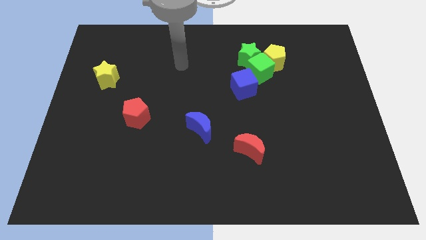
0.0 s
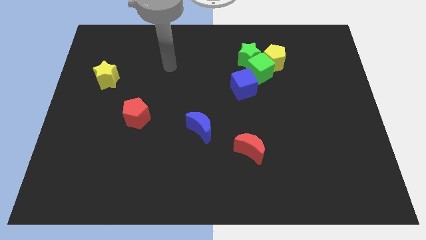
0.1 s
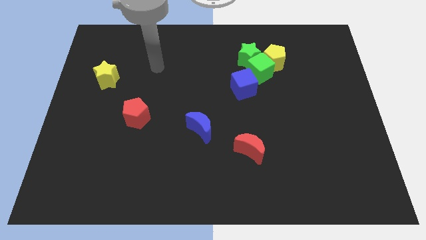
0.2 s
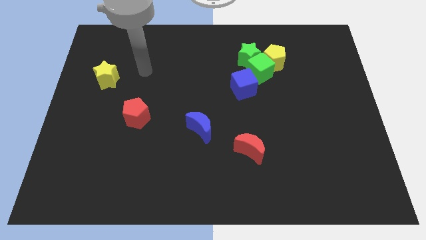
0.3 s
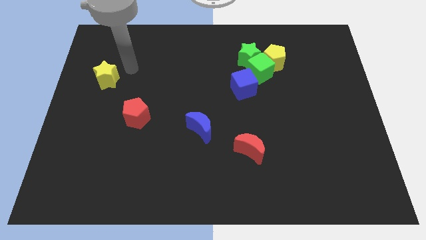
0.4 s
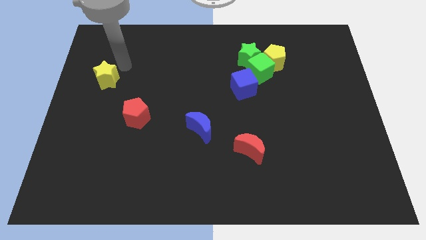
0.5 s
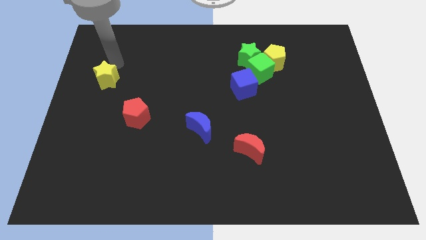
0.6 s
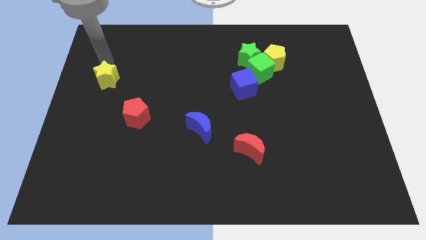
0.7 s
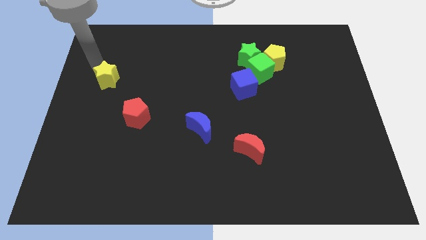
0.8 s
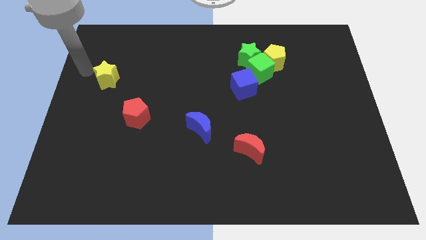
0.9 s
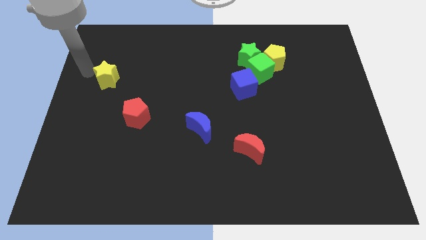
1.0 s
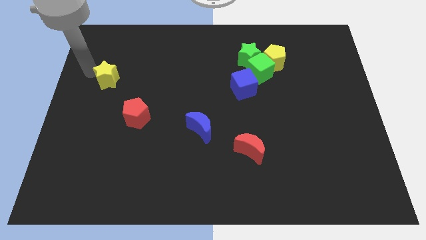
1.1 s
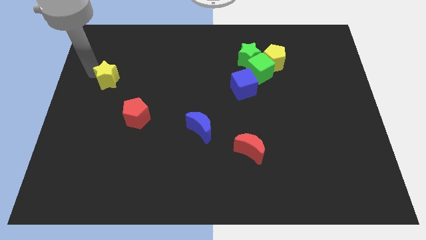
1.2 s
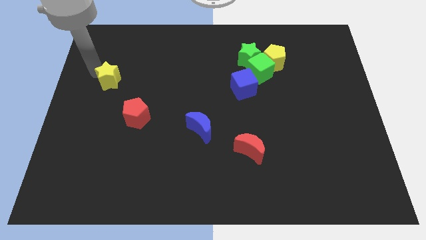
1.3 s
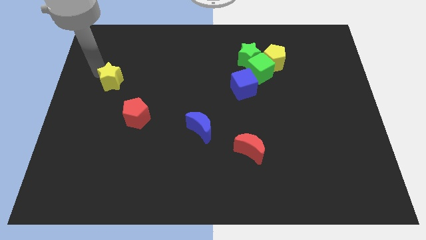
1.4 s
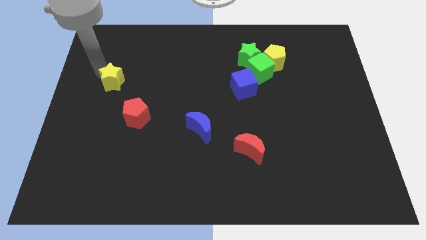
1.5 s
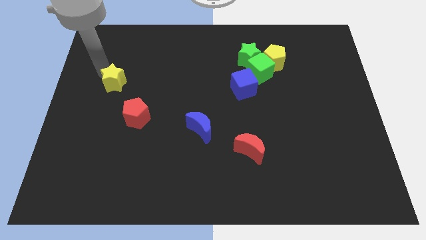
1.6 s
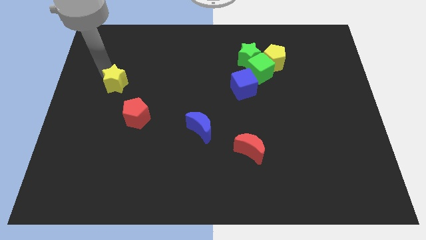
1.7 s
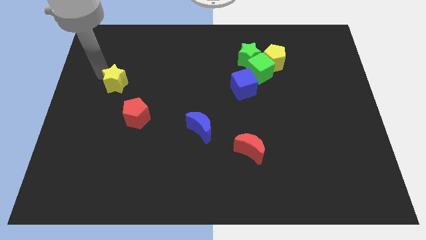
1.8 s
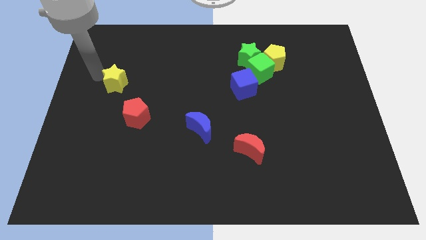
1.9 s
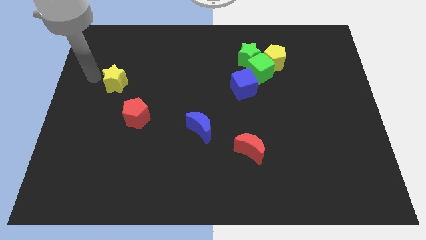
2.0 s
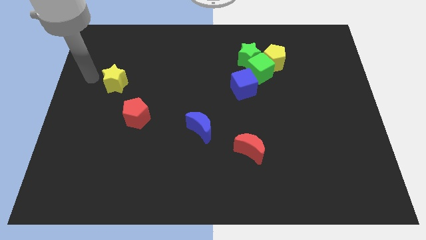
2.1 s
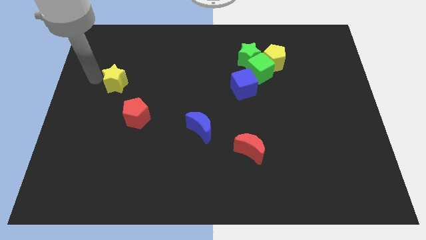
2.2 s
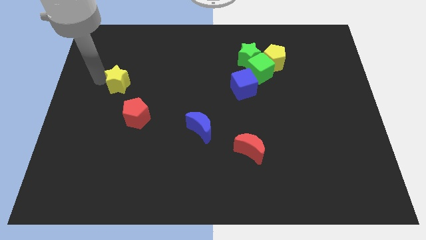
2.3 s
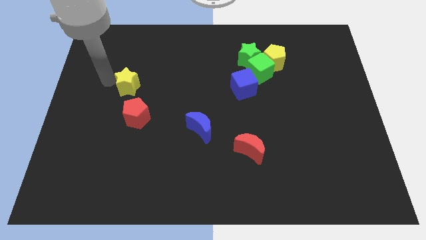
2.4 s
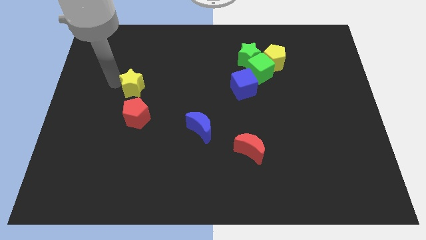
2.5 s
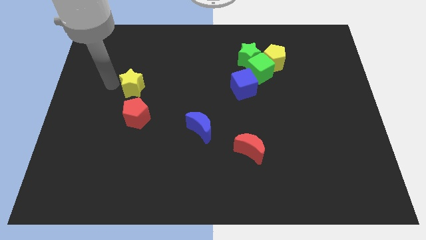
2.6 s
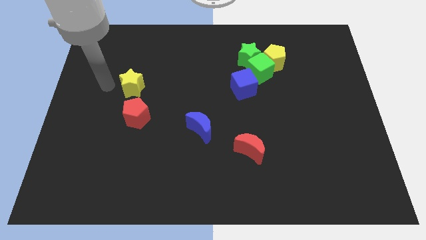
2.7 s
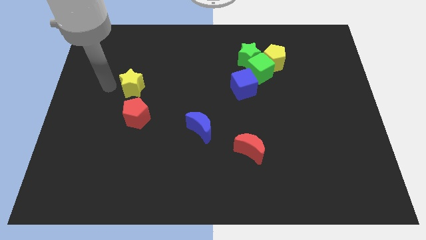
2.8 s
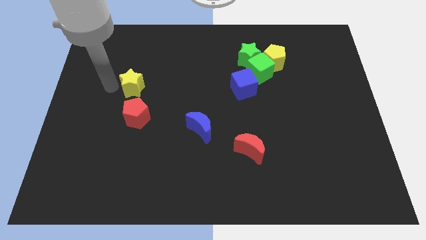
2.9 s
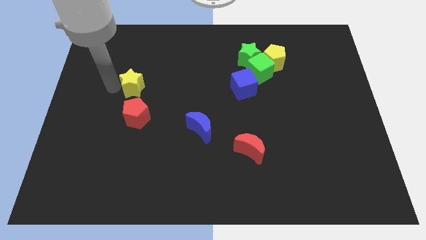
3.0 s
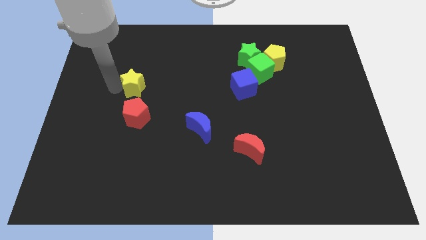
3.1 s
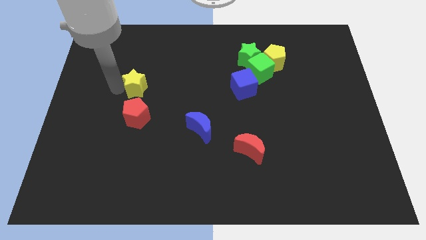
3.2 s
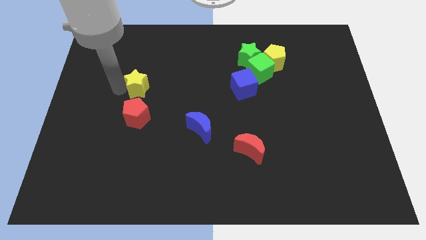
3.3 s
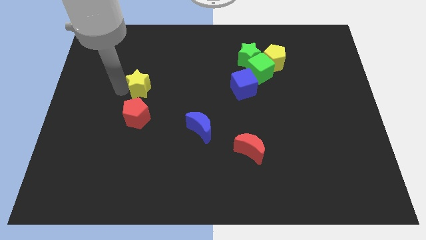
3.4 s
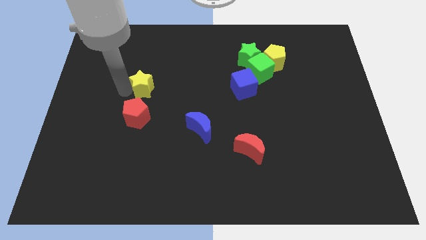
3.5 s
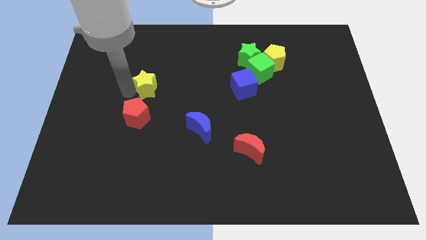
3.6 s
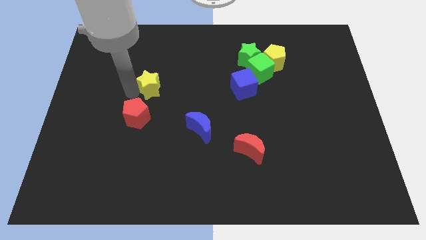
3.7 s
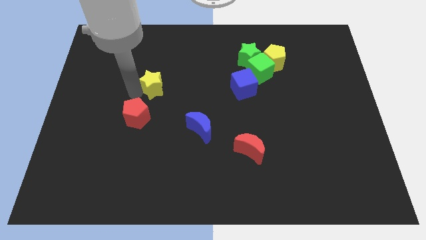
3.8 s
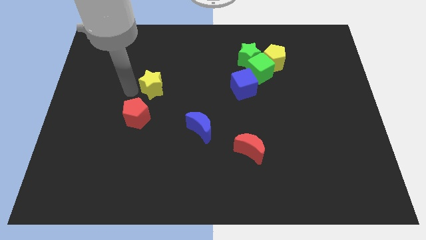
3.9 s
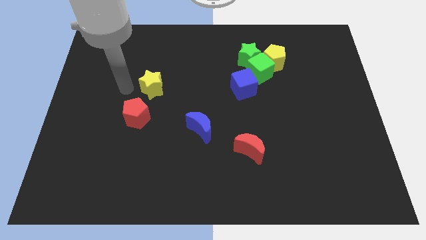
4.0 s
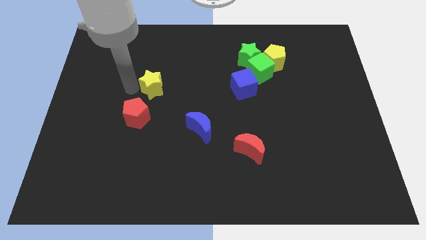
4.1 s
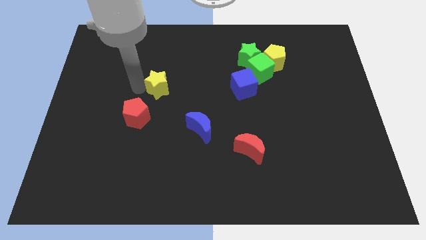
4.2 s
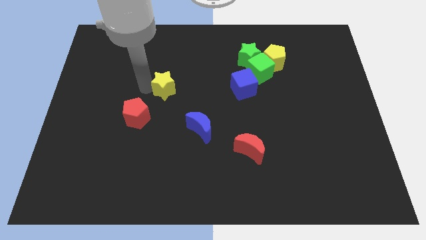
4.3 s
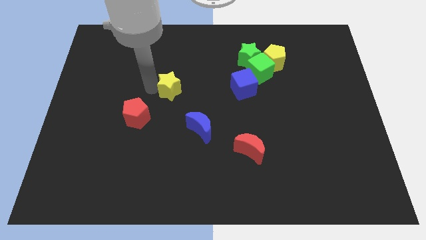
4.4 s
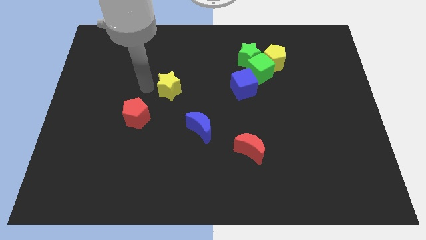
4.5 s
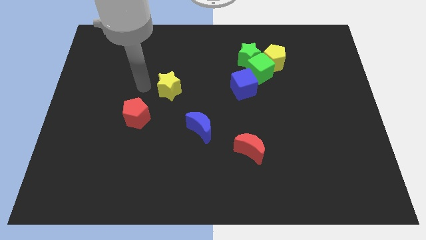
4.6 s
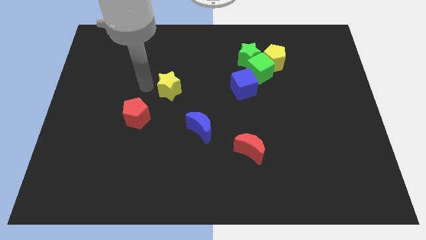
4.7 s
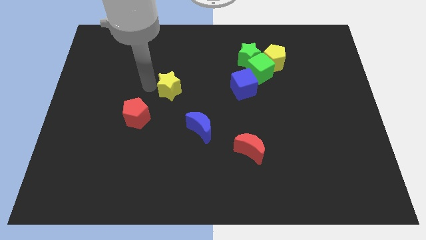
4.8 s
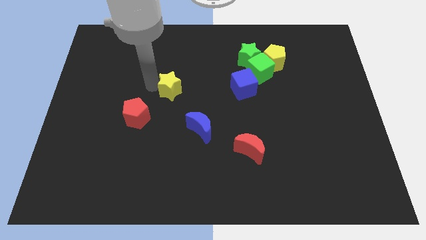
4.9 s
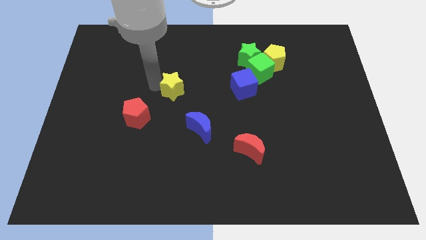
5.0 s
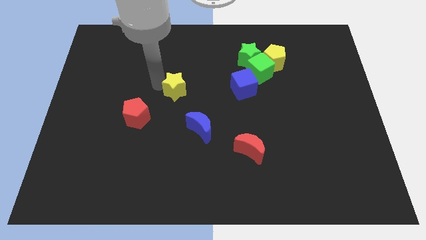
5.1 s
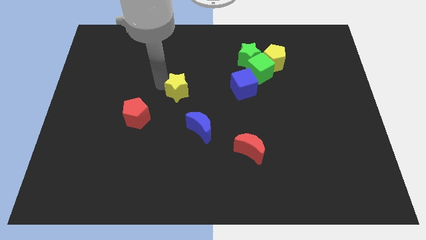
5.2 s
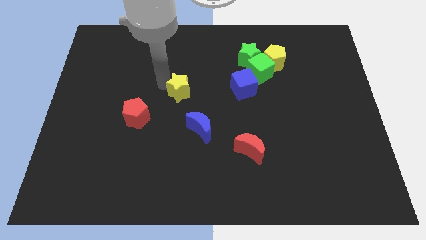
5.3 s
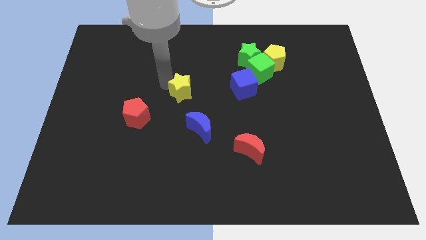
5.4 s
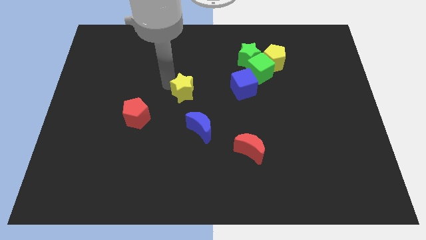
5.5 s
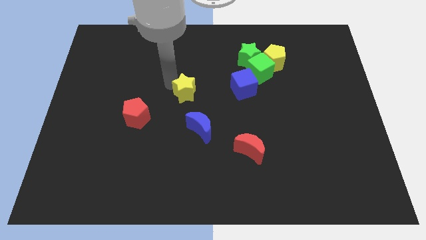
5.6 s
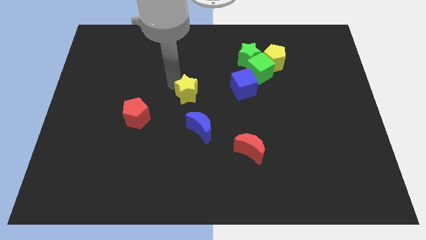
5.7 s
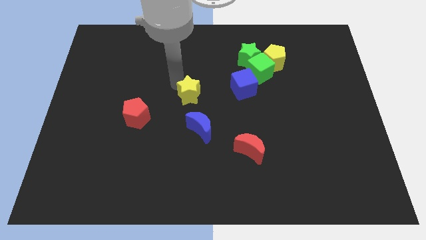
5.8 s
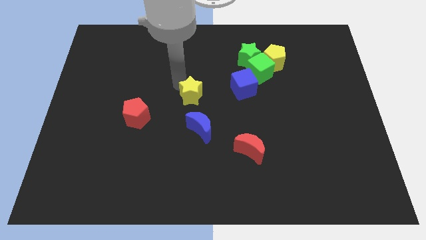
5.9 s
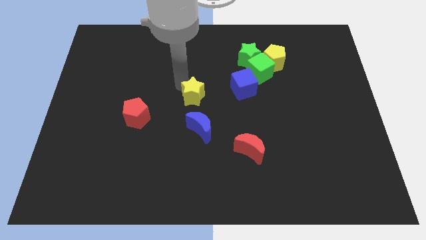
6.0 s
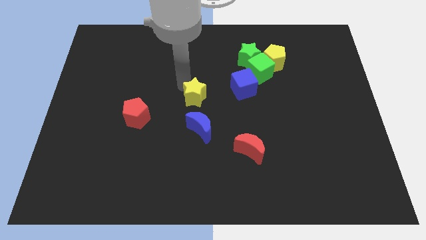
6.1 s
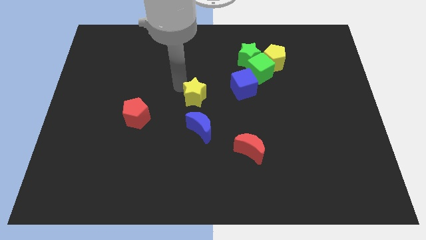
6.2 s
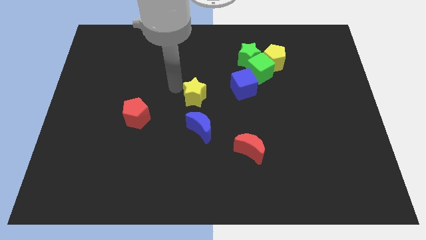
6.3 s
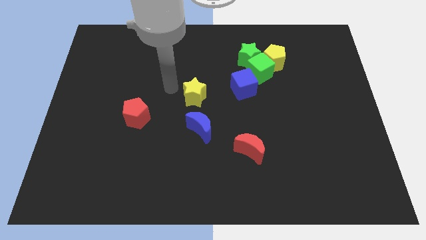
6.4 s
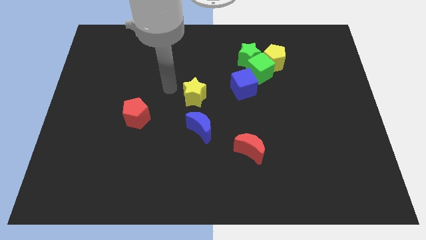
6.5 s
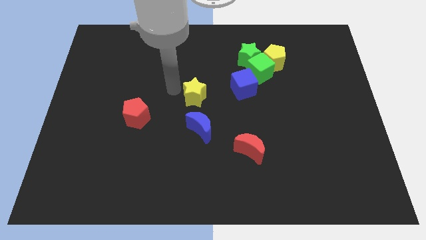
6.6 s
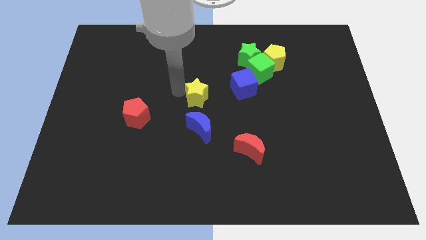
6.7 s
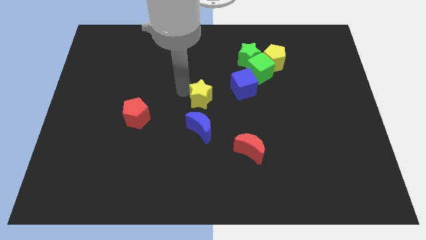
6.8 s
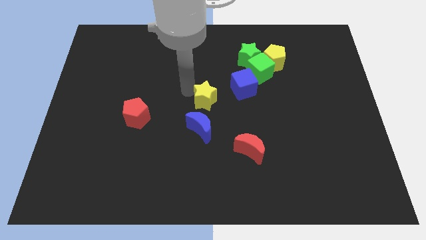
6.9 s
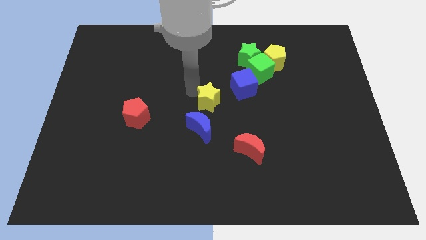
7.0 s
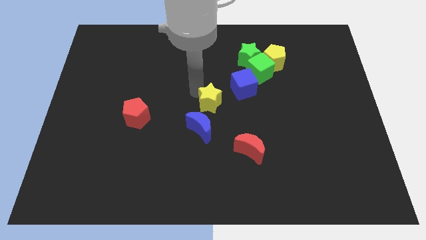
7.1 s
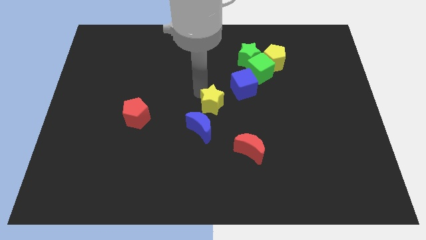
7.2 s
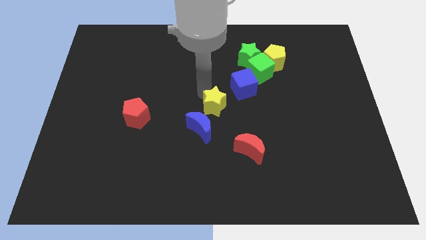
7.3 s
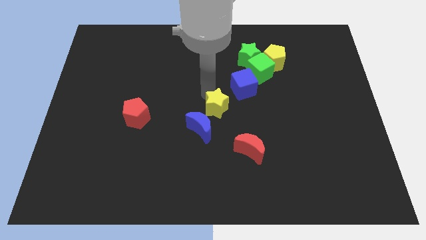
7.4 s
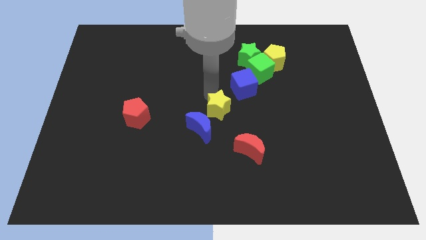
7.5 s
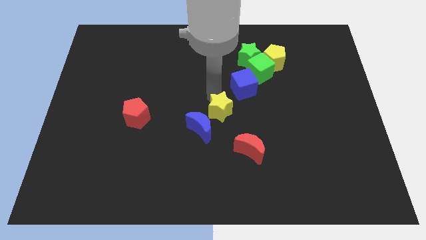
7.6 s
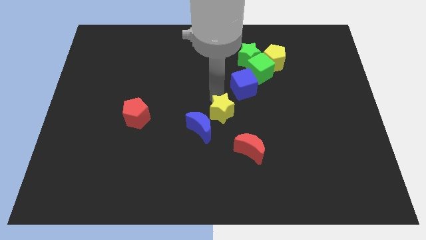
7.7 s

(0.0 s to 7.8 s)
slide the yellow star diagonally up and to the left of the red moon
